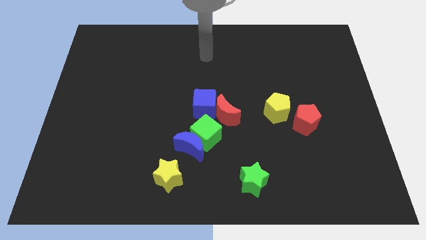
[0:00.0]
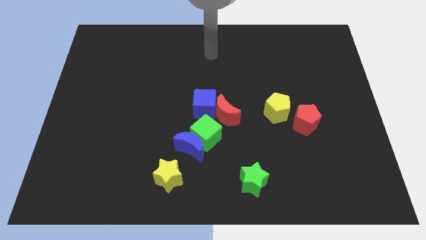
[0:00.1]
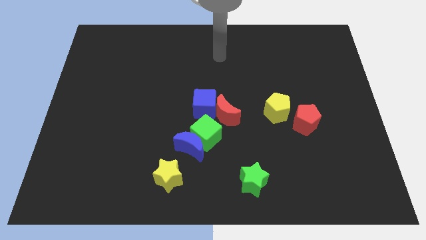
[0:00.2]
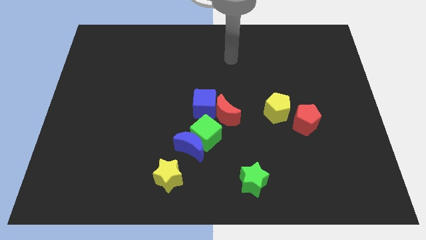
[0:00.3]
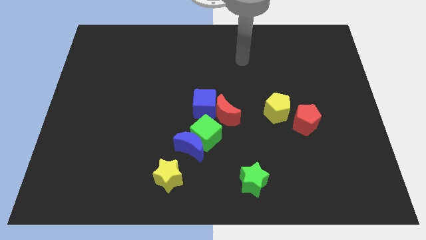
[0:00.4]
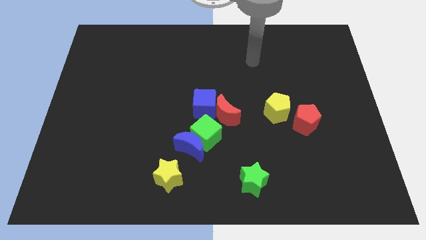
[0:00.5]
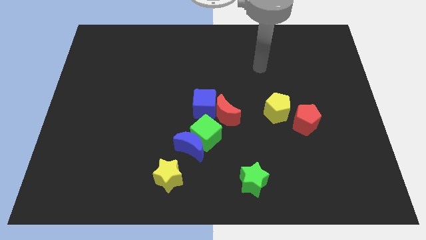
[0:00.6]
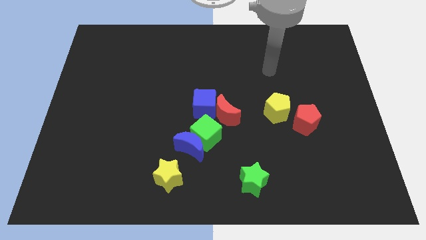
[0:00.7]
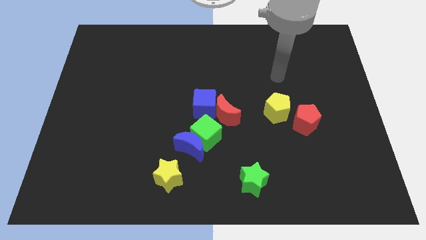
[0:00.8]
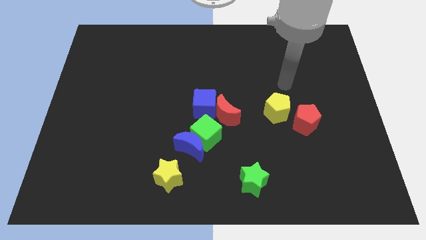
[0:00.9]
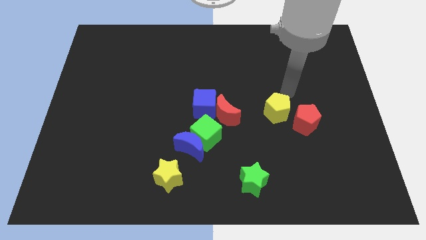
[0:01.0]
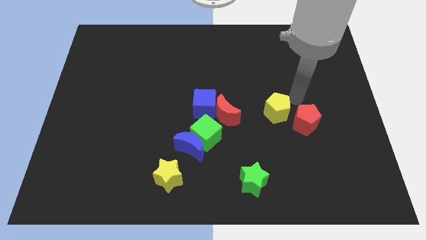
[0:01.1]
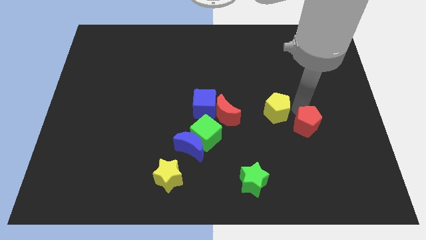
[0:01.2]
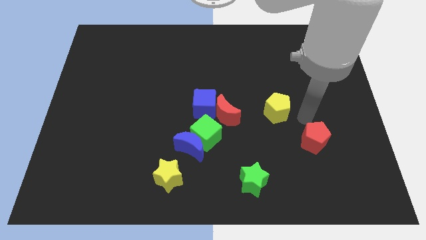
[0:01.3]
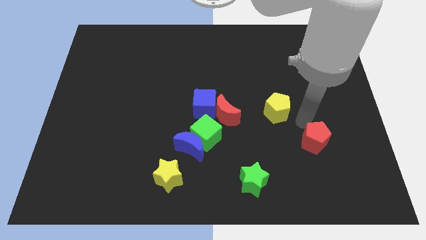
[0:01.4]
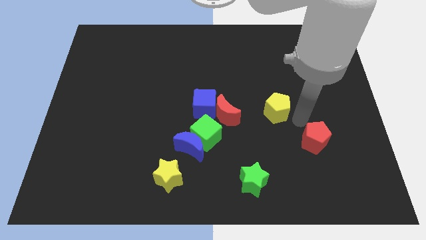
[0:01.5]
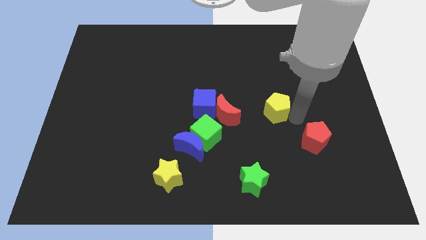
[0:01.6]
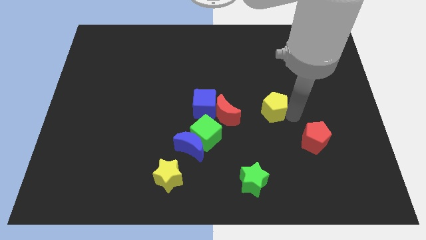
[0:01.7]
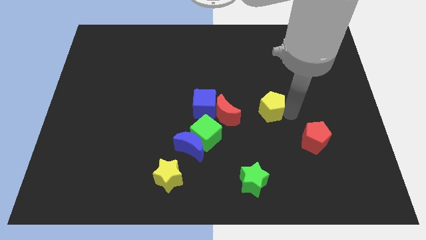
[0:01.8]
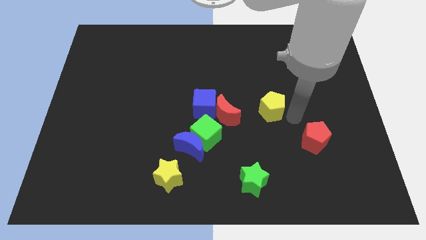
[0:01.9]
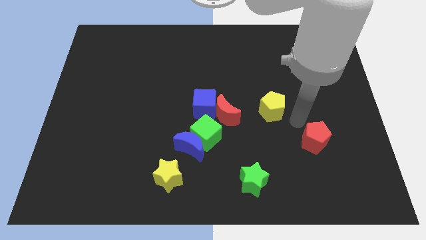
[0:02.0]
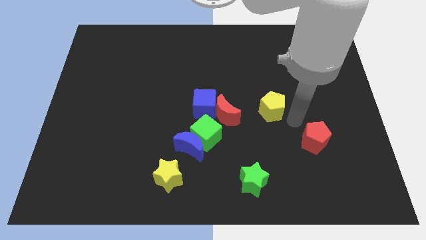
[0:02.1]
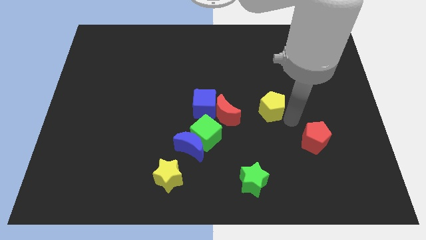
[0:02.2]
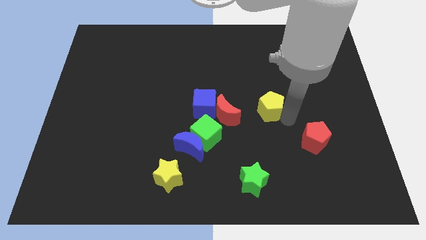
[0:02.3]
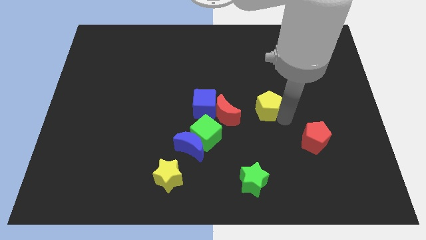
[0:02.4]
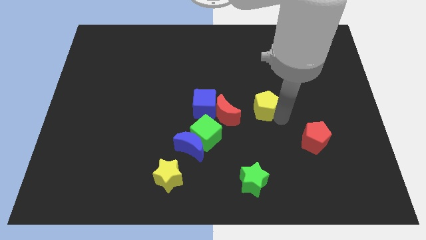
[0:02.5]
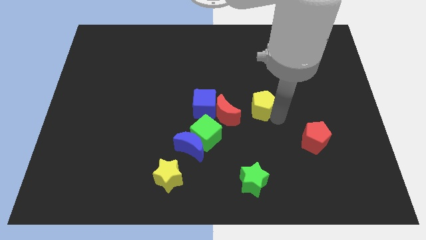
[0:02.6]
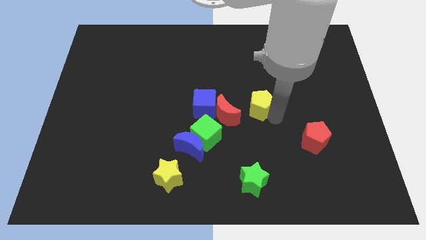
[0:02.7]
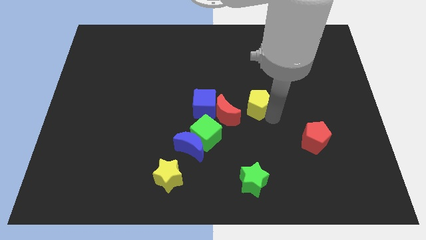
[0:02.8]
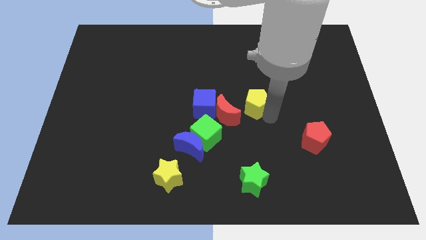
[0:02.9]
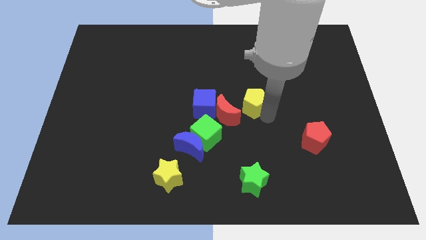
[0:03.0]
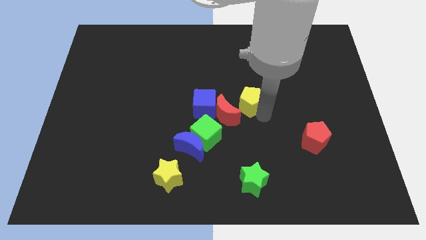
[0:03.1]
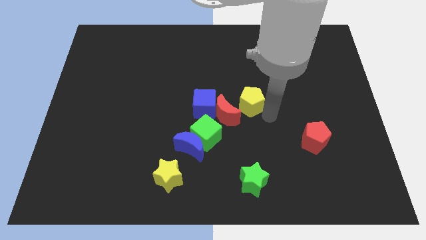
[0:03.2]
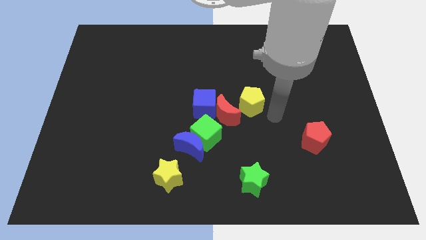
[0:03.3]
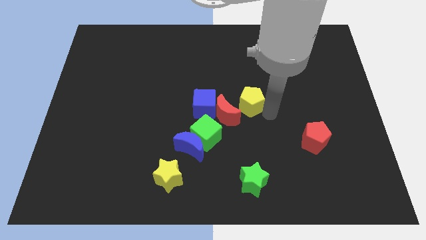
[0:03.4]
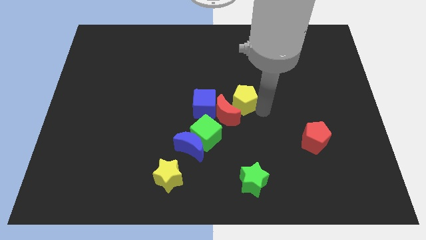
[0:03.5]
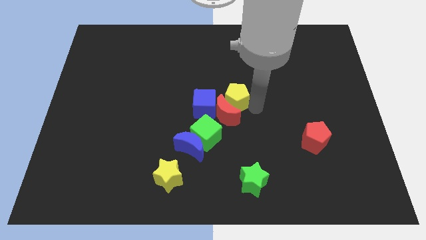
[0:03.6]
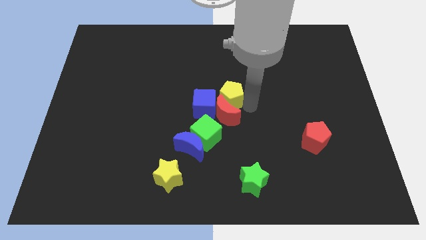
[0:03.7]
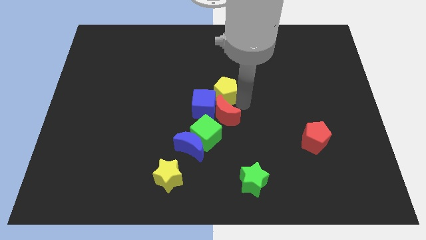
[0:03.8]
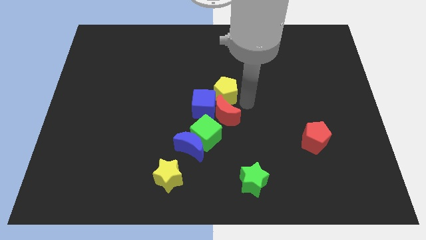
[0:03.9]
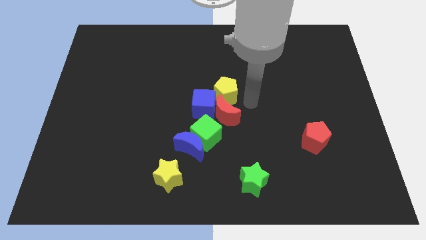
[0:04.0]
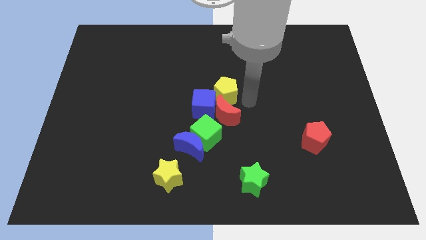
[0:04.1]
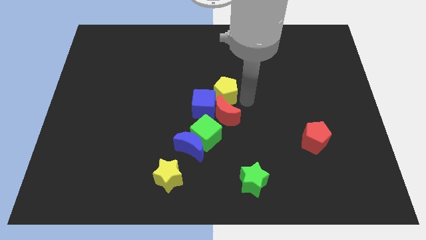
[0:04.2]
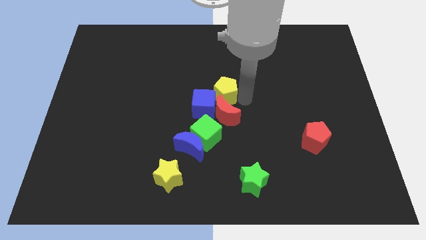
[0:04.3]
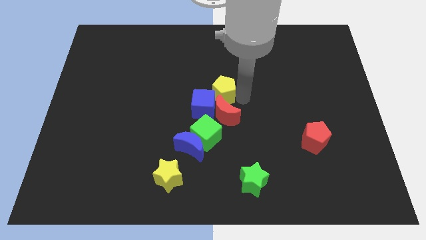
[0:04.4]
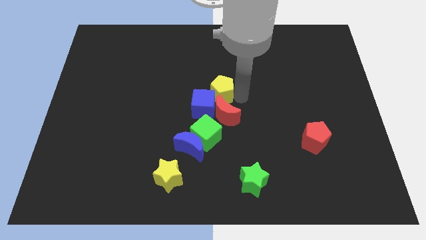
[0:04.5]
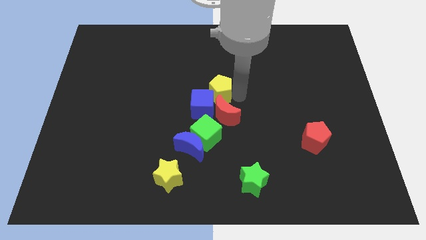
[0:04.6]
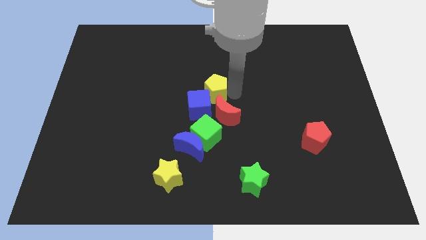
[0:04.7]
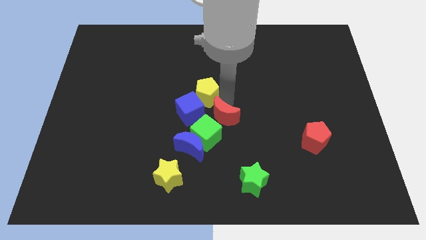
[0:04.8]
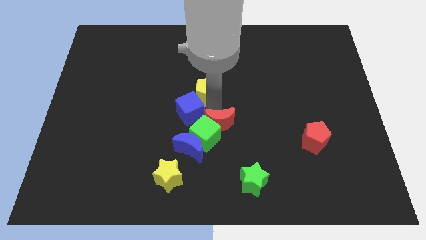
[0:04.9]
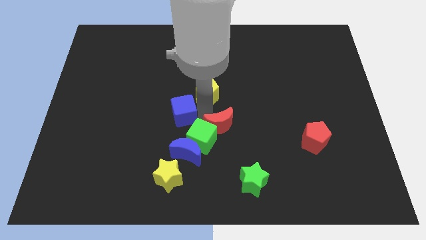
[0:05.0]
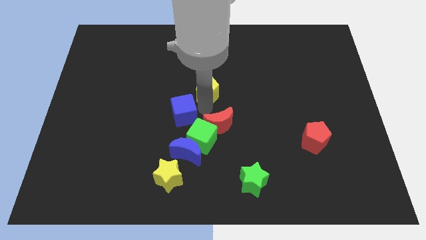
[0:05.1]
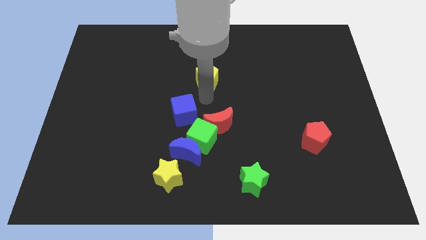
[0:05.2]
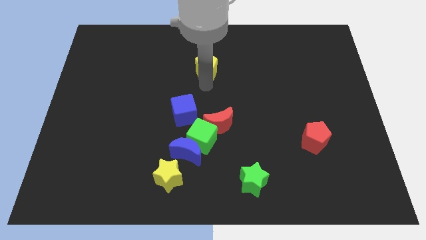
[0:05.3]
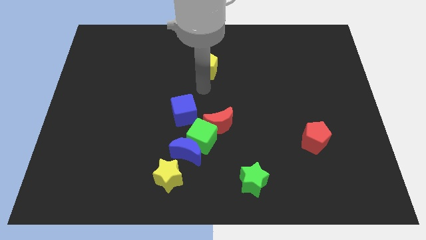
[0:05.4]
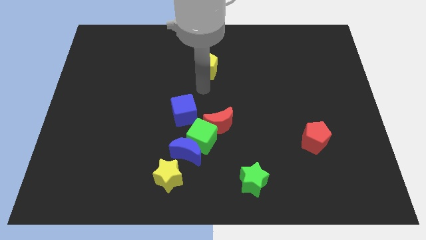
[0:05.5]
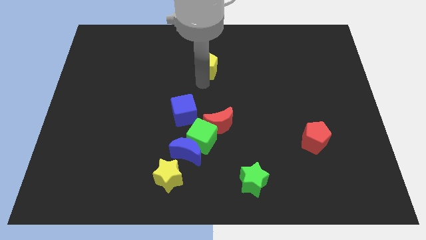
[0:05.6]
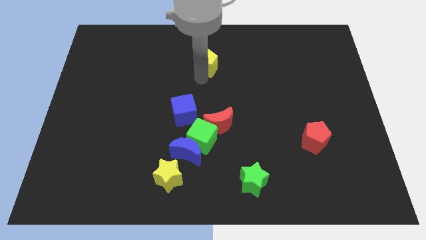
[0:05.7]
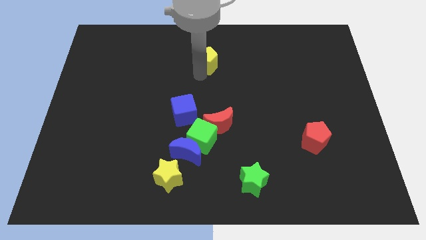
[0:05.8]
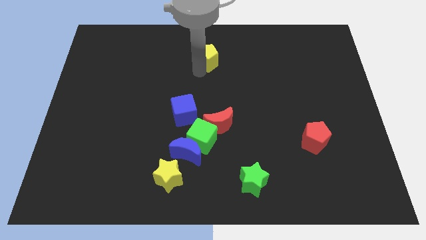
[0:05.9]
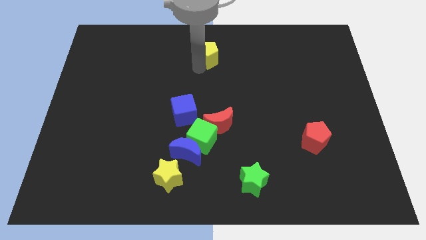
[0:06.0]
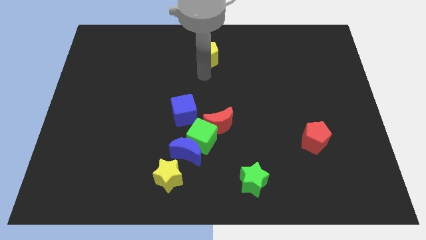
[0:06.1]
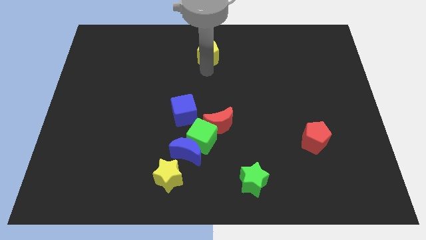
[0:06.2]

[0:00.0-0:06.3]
put the yellow pentagon to the towards your base

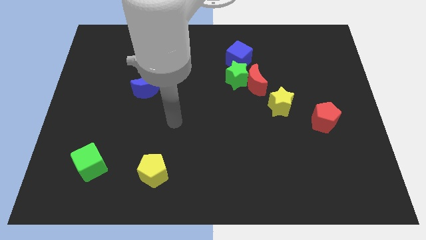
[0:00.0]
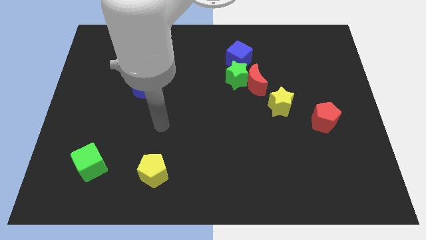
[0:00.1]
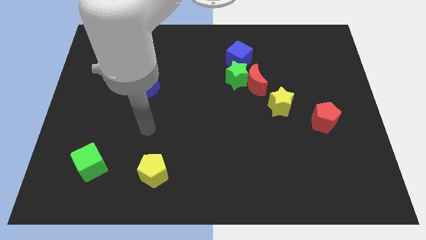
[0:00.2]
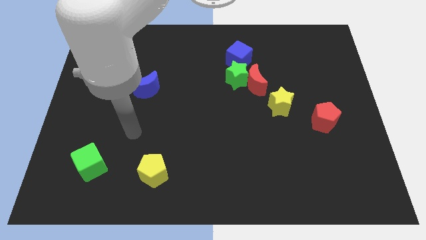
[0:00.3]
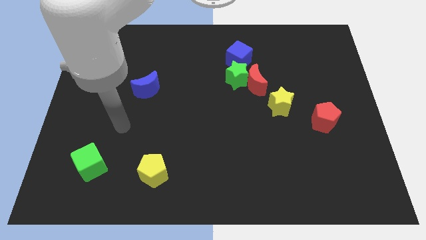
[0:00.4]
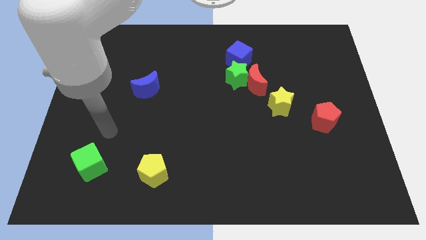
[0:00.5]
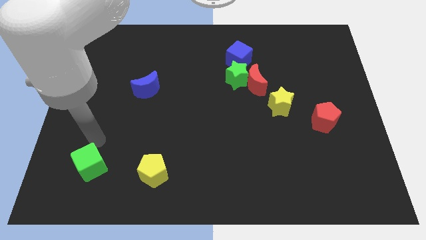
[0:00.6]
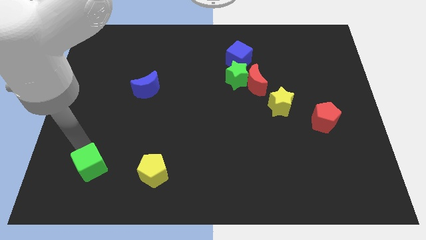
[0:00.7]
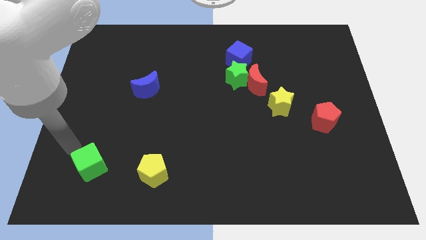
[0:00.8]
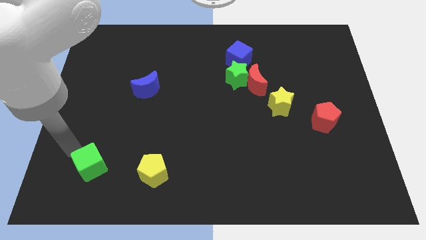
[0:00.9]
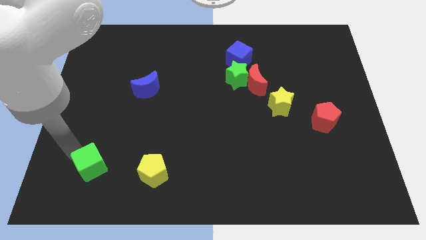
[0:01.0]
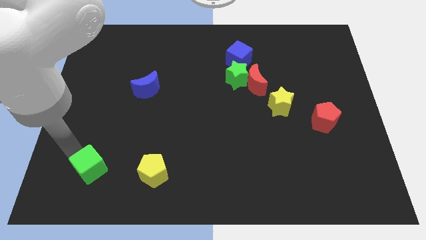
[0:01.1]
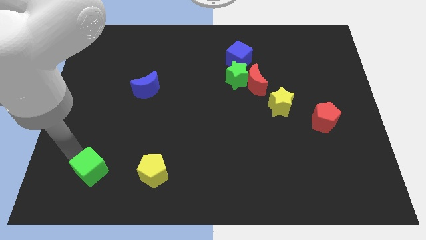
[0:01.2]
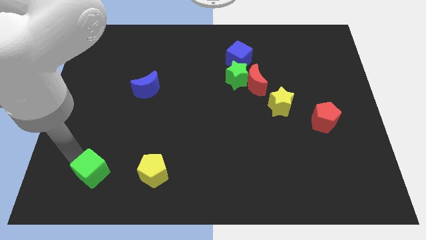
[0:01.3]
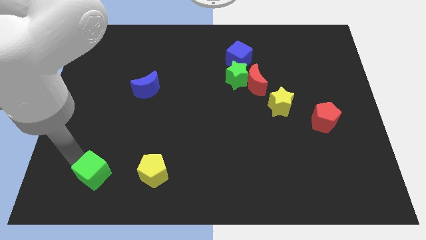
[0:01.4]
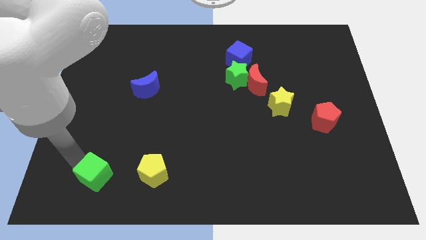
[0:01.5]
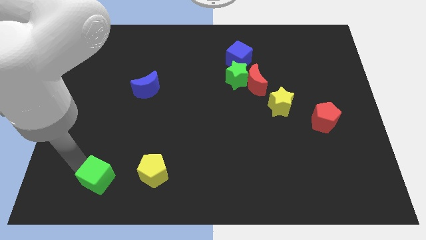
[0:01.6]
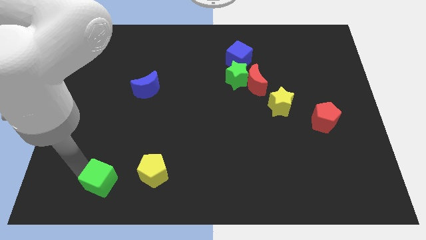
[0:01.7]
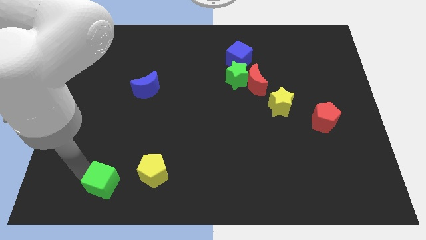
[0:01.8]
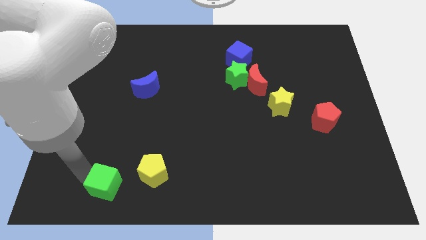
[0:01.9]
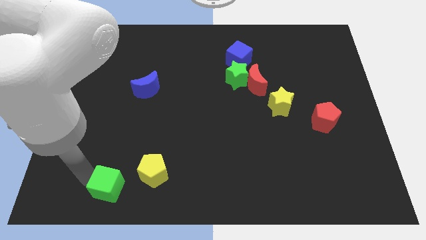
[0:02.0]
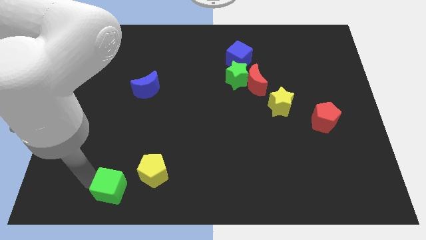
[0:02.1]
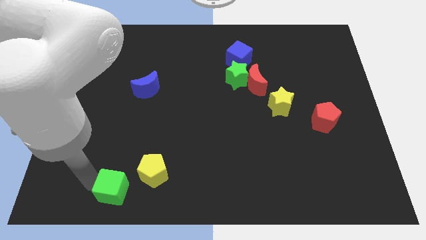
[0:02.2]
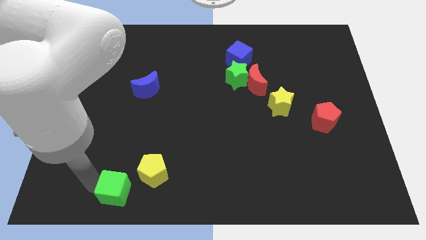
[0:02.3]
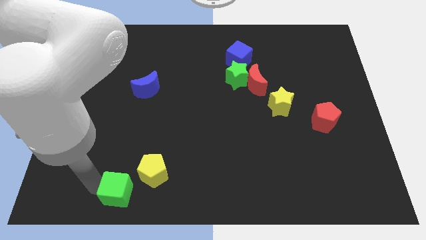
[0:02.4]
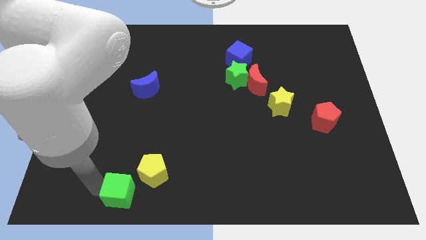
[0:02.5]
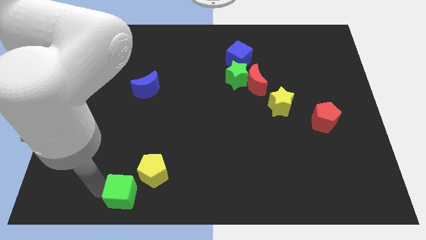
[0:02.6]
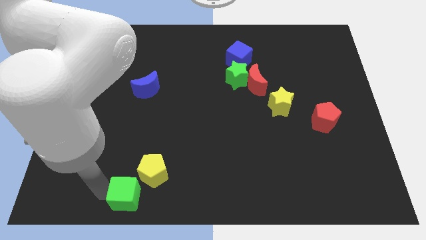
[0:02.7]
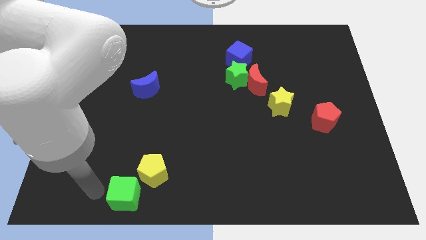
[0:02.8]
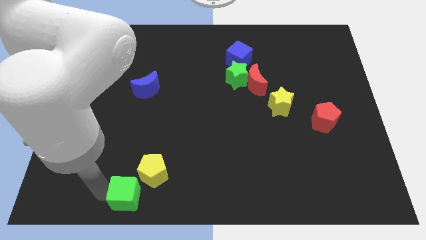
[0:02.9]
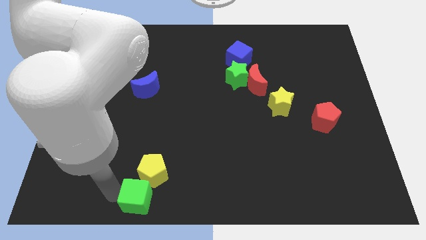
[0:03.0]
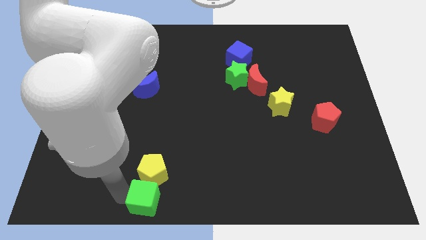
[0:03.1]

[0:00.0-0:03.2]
slide the green cube to the bottom side
